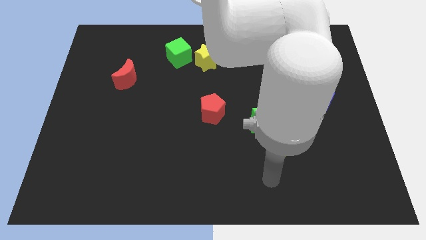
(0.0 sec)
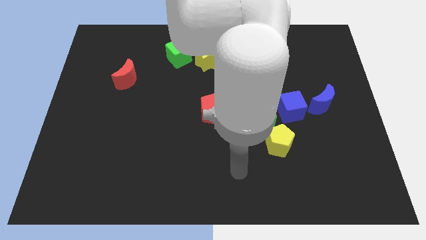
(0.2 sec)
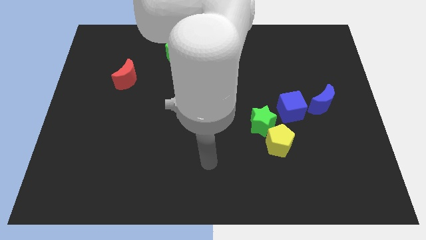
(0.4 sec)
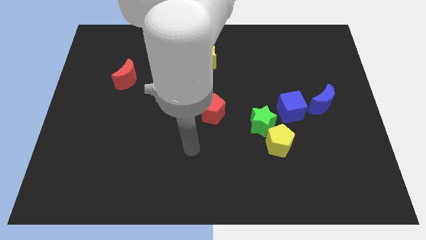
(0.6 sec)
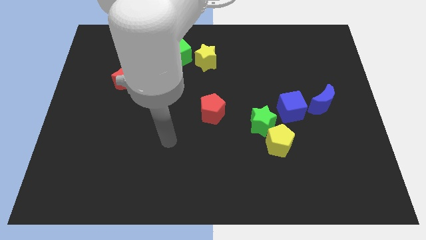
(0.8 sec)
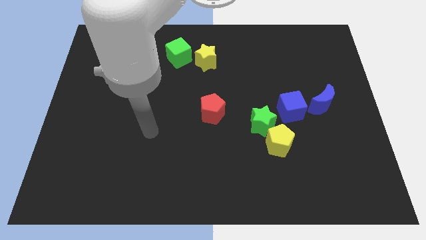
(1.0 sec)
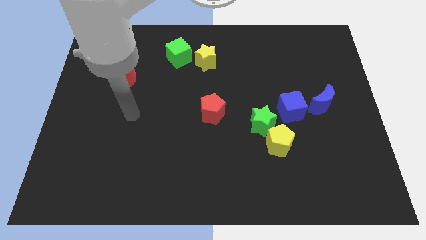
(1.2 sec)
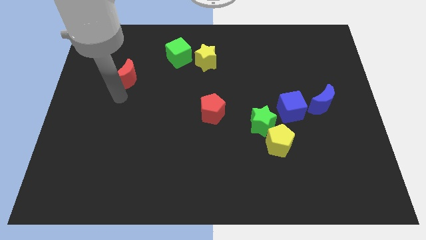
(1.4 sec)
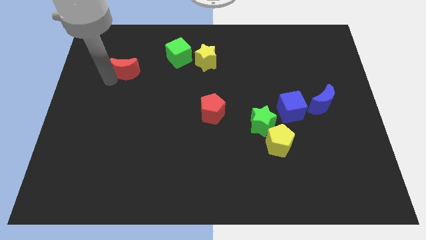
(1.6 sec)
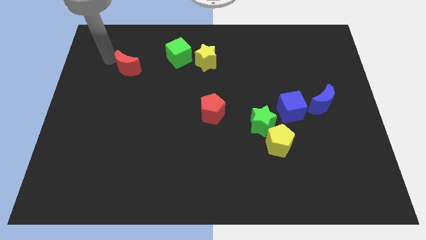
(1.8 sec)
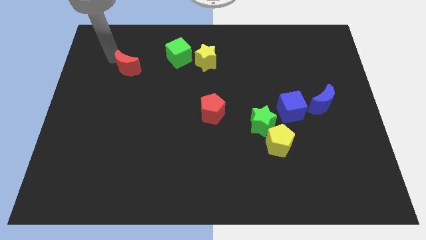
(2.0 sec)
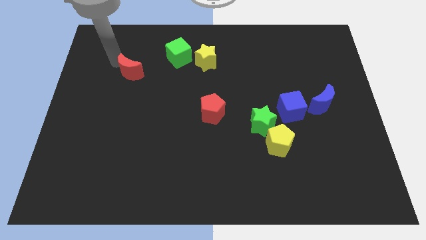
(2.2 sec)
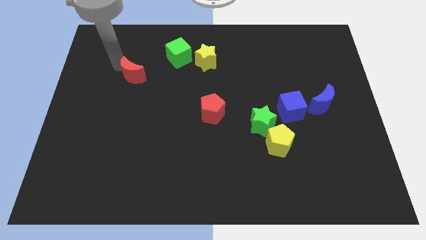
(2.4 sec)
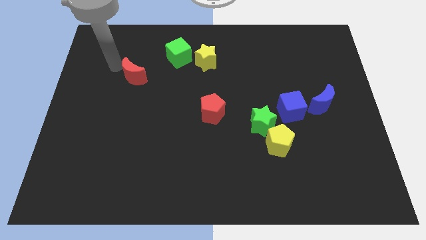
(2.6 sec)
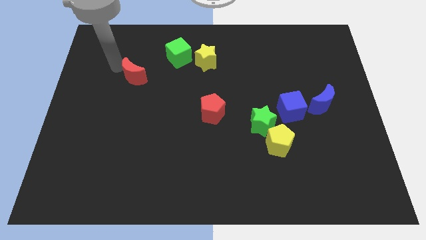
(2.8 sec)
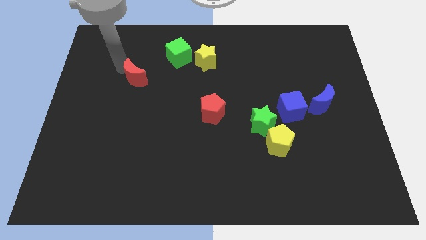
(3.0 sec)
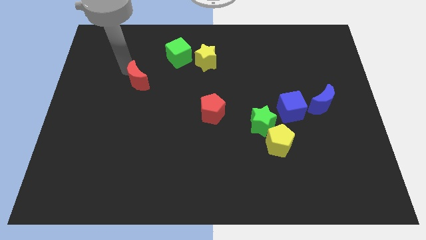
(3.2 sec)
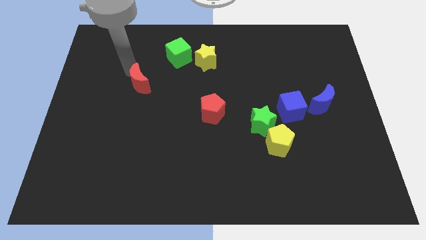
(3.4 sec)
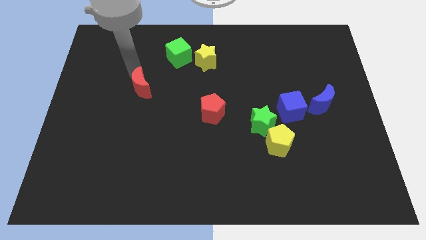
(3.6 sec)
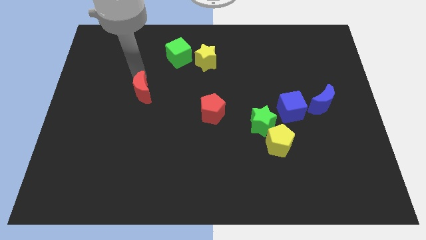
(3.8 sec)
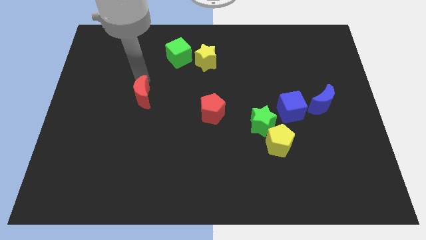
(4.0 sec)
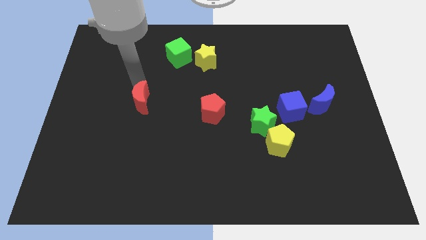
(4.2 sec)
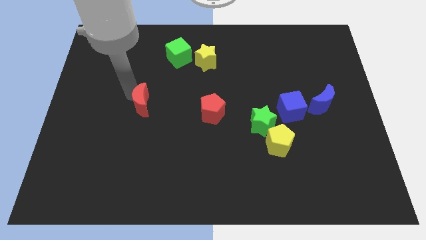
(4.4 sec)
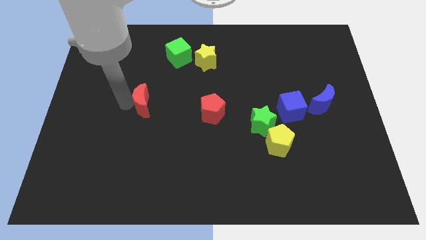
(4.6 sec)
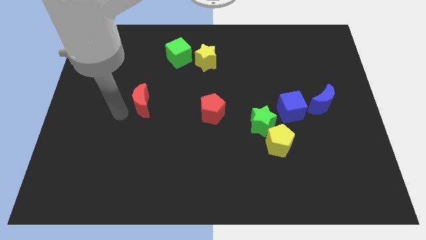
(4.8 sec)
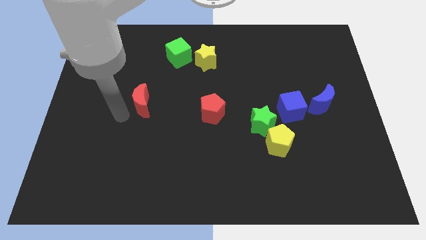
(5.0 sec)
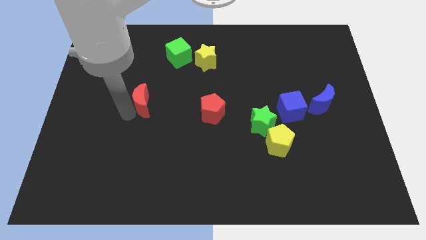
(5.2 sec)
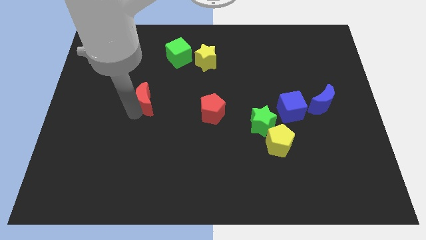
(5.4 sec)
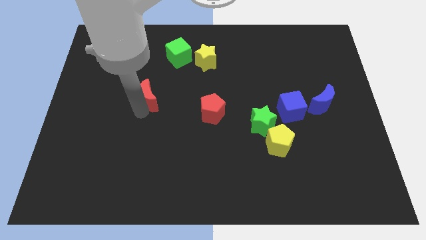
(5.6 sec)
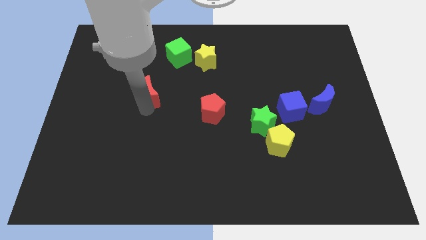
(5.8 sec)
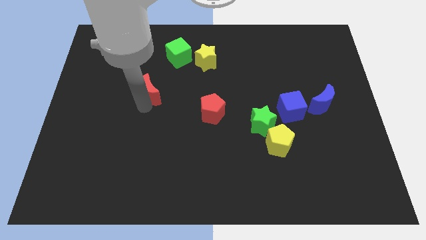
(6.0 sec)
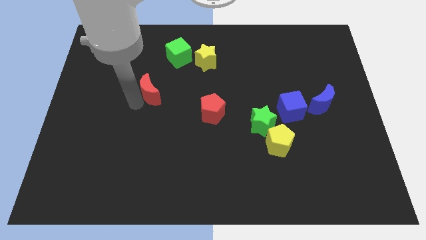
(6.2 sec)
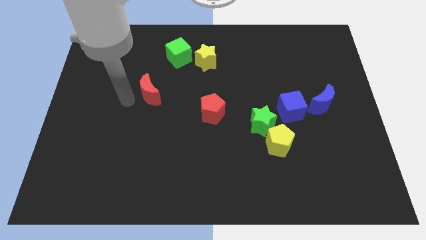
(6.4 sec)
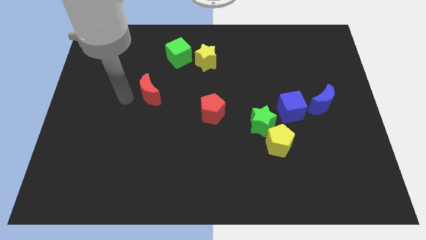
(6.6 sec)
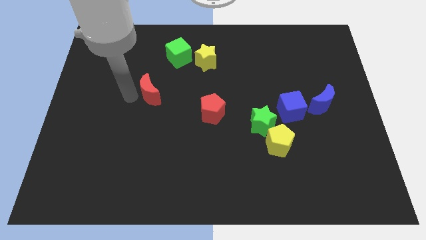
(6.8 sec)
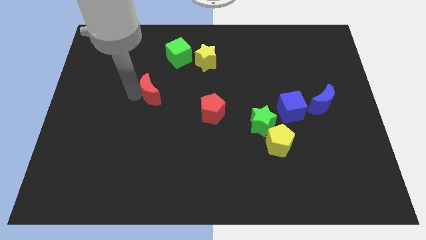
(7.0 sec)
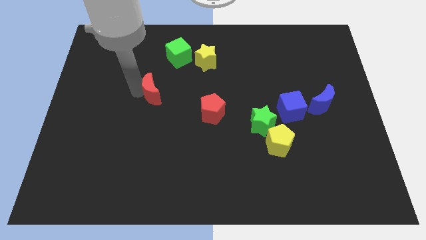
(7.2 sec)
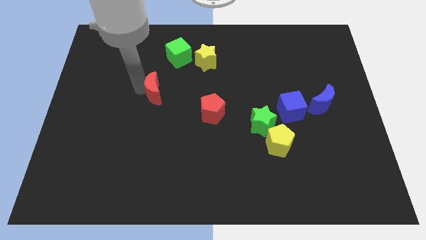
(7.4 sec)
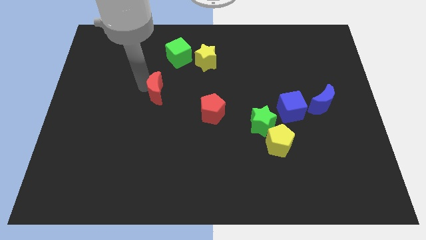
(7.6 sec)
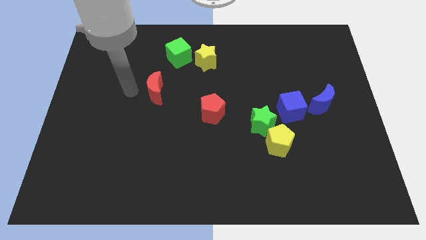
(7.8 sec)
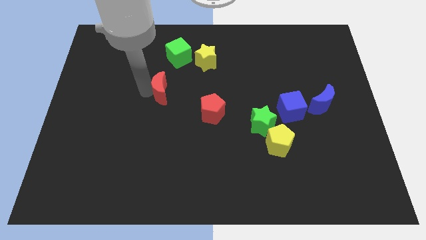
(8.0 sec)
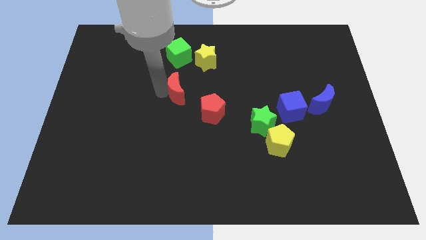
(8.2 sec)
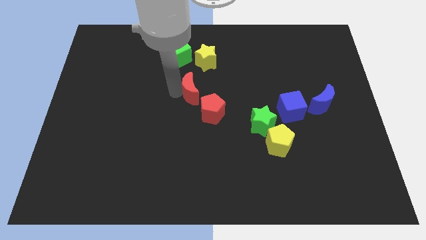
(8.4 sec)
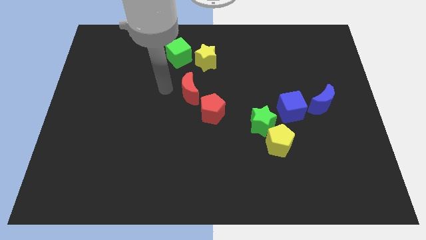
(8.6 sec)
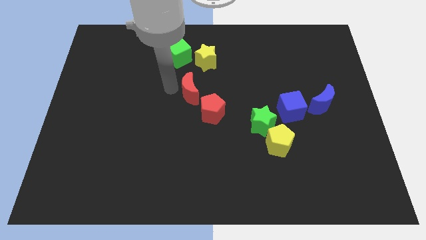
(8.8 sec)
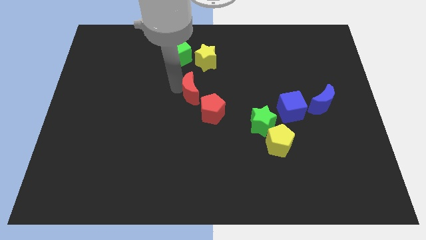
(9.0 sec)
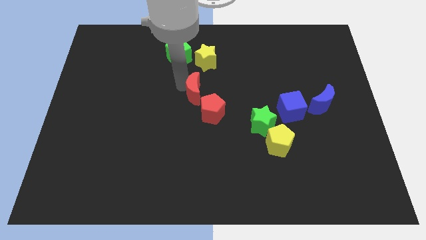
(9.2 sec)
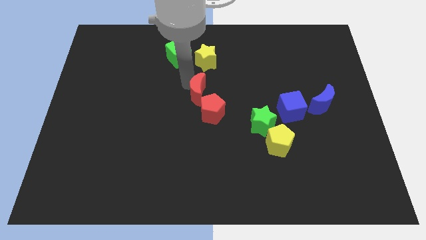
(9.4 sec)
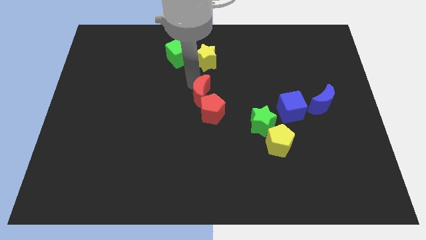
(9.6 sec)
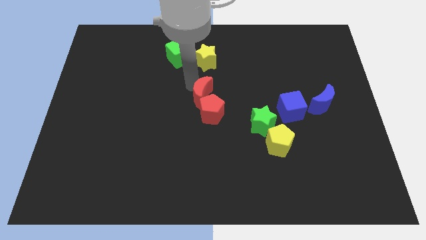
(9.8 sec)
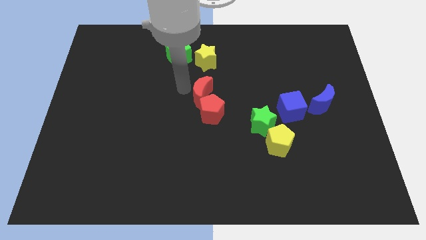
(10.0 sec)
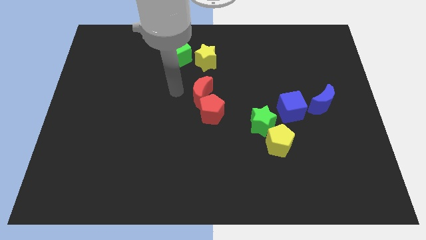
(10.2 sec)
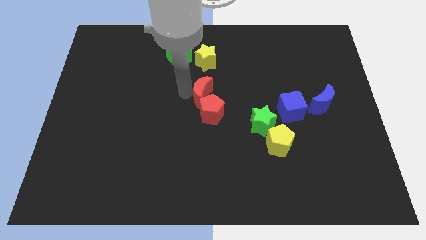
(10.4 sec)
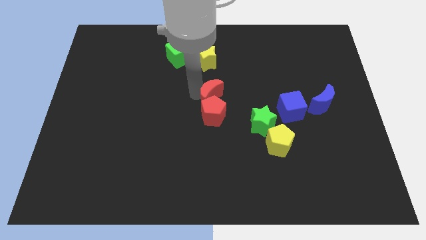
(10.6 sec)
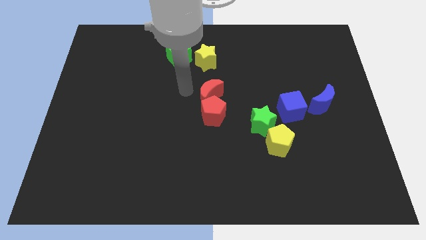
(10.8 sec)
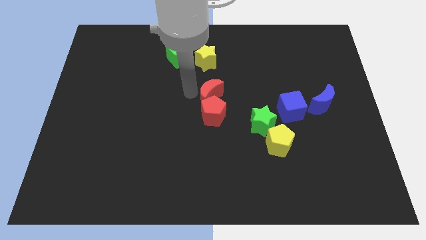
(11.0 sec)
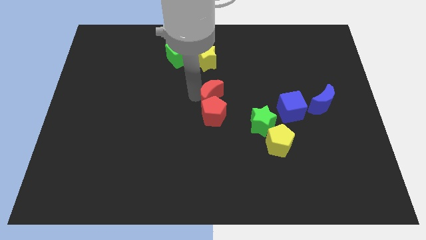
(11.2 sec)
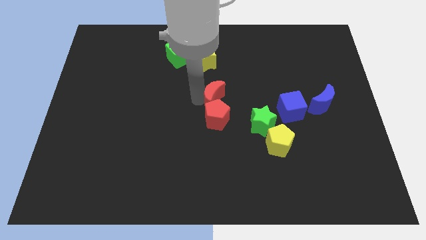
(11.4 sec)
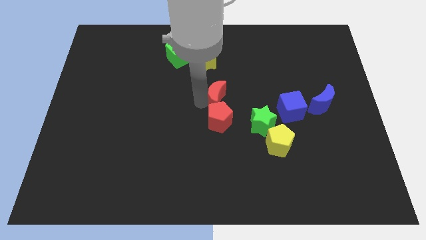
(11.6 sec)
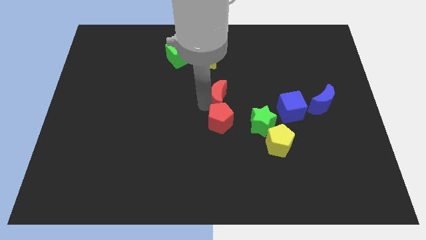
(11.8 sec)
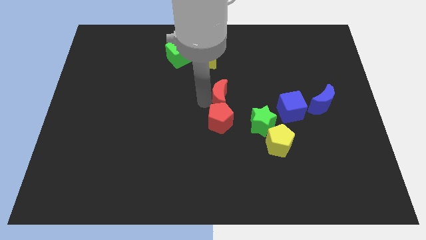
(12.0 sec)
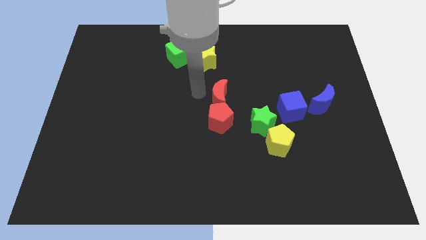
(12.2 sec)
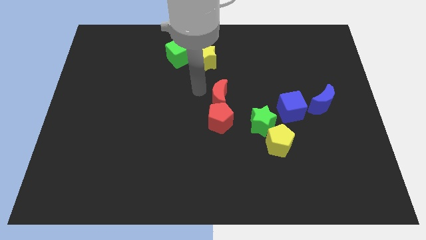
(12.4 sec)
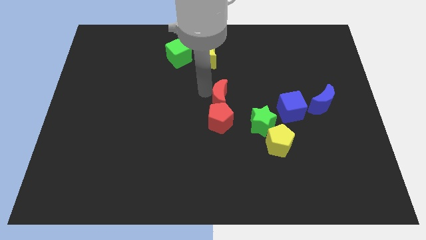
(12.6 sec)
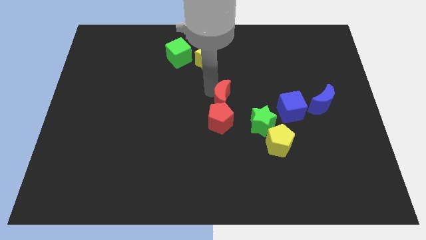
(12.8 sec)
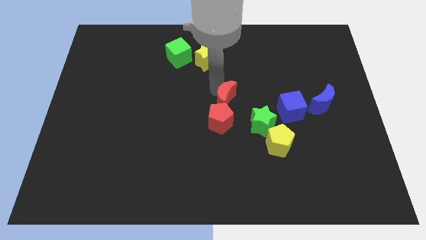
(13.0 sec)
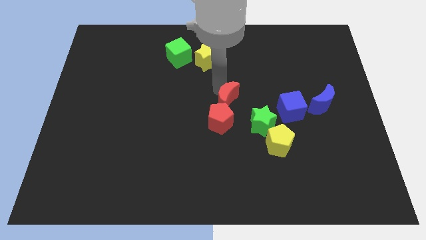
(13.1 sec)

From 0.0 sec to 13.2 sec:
put the red moon just left of the blue cube

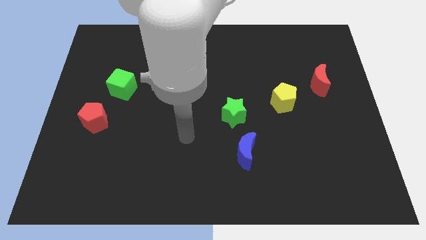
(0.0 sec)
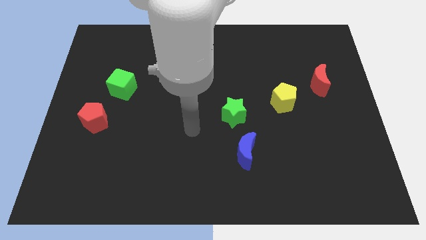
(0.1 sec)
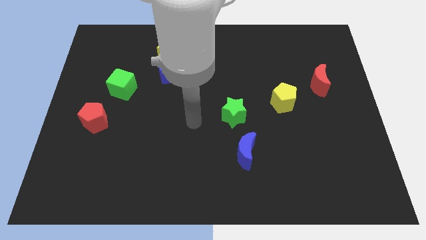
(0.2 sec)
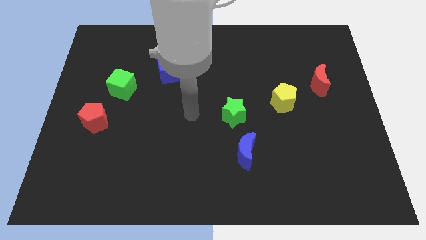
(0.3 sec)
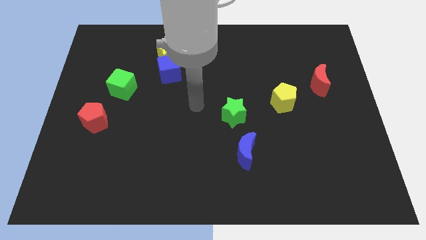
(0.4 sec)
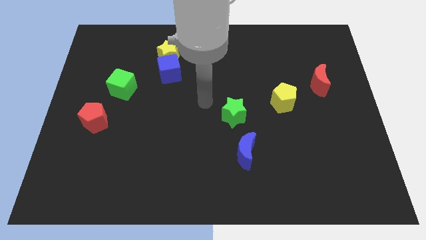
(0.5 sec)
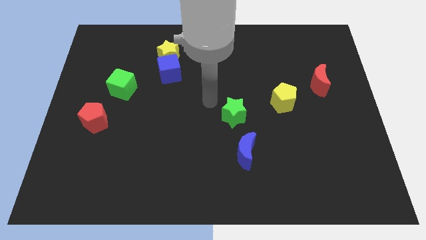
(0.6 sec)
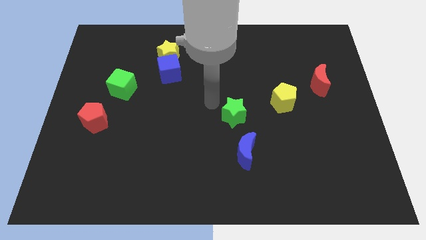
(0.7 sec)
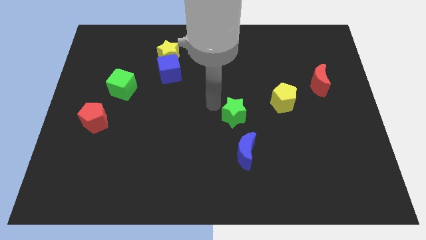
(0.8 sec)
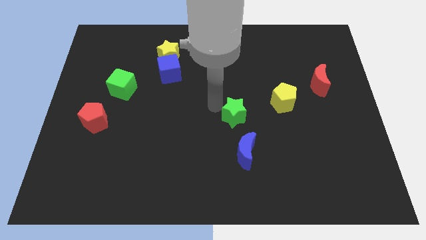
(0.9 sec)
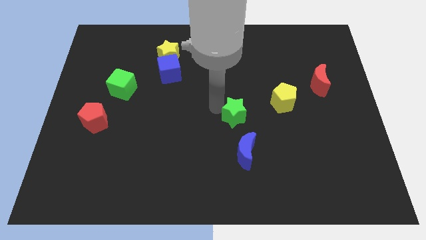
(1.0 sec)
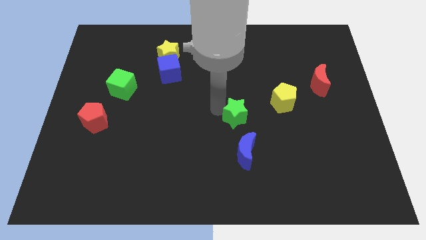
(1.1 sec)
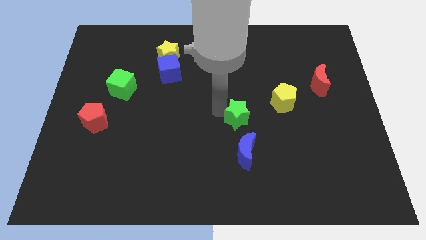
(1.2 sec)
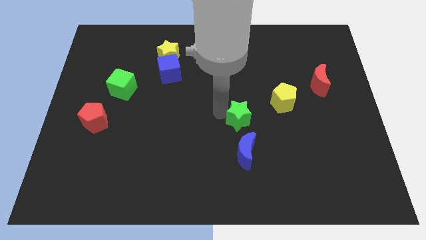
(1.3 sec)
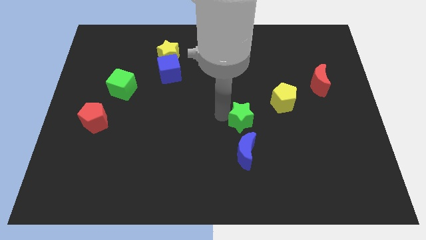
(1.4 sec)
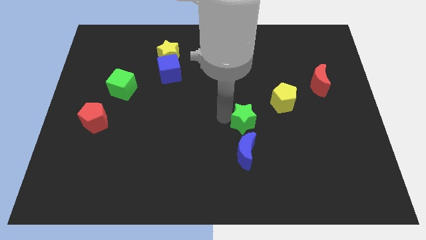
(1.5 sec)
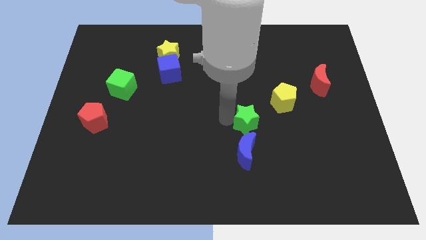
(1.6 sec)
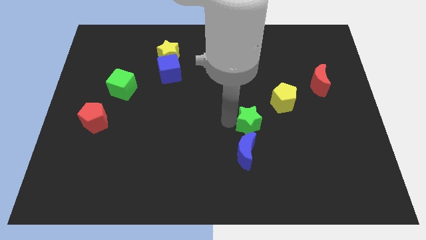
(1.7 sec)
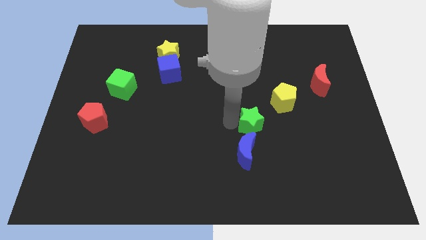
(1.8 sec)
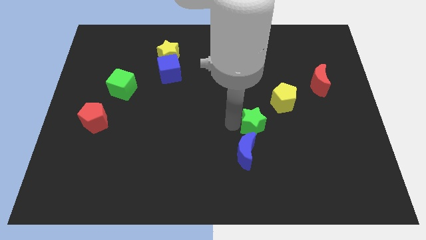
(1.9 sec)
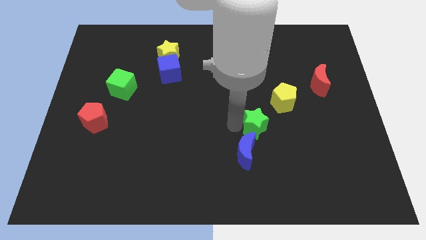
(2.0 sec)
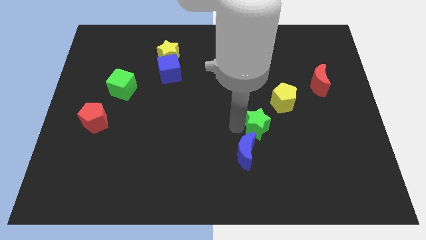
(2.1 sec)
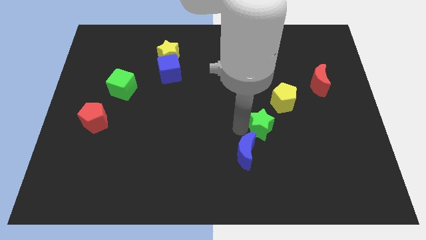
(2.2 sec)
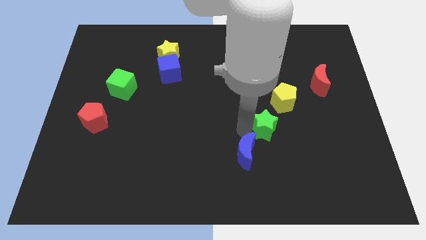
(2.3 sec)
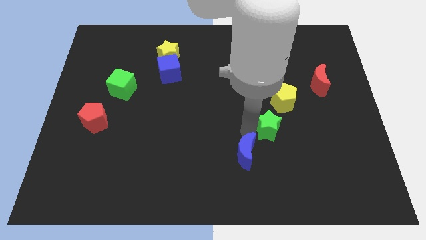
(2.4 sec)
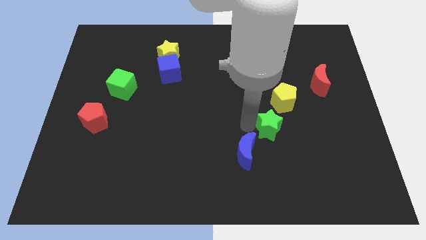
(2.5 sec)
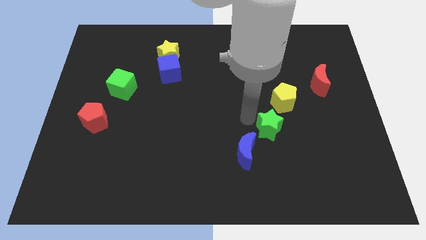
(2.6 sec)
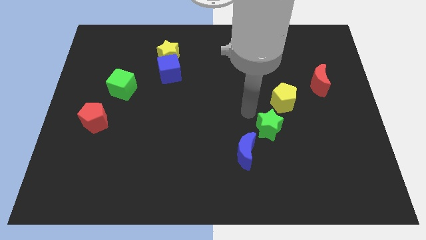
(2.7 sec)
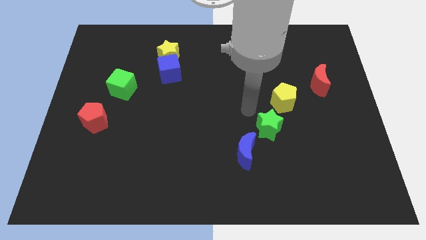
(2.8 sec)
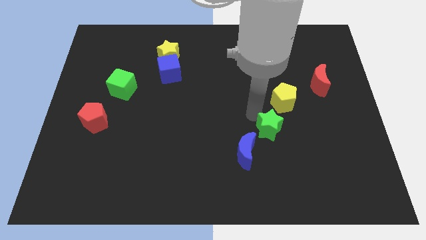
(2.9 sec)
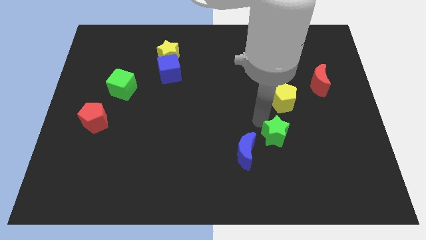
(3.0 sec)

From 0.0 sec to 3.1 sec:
put the green star right of the blue moon
